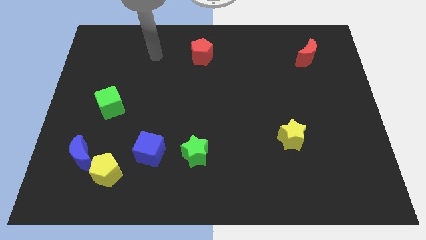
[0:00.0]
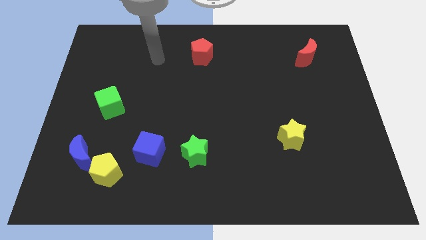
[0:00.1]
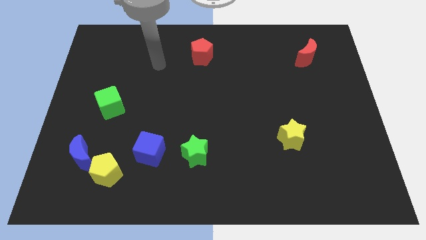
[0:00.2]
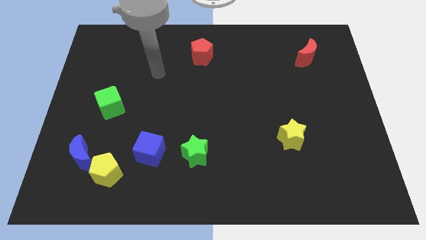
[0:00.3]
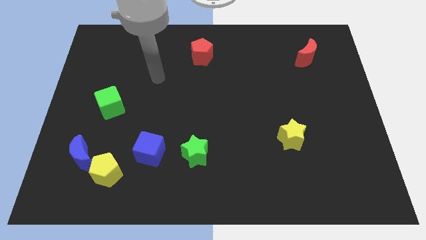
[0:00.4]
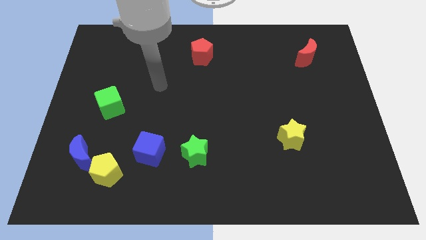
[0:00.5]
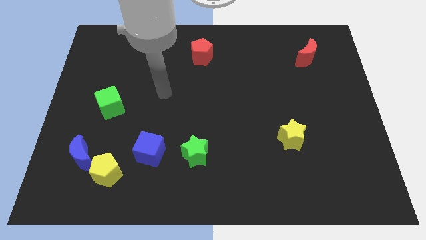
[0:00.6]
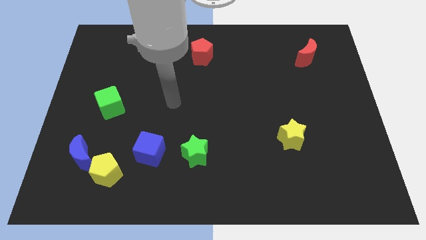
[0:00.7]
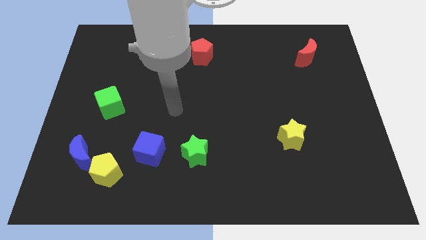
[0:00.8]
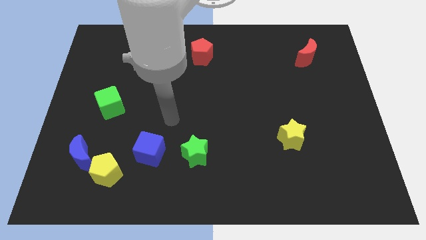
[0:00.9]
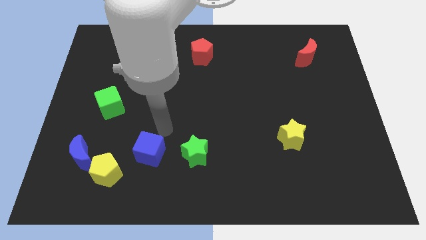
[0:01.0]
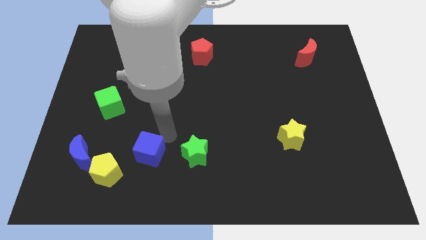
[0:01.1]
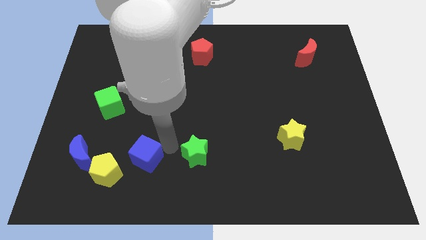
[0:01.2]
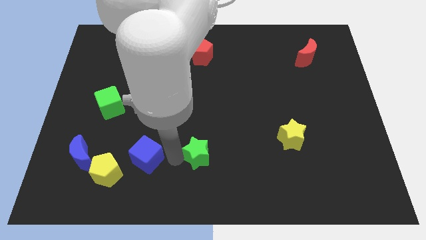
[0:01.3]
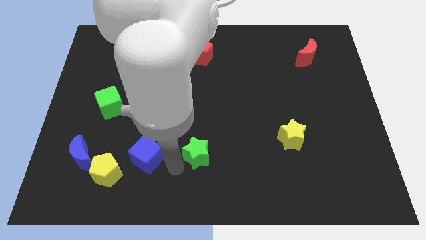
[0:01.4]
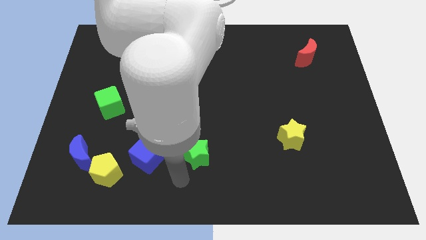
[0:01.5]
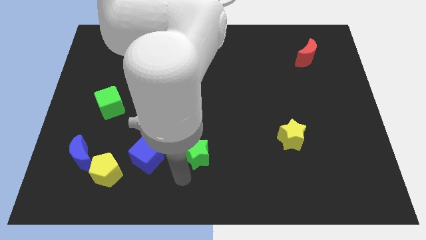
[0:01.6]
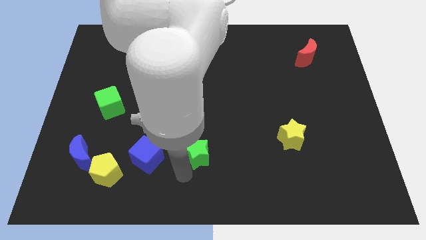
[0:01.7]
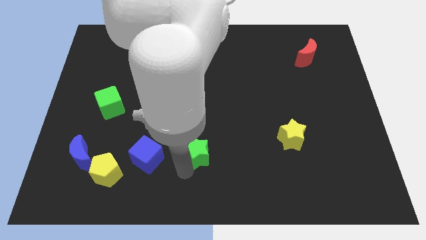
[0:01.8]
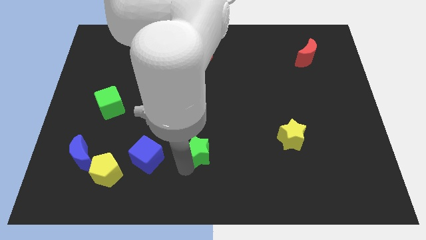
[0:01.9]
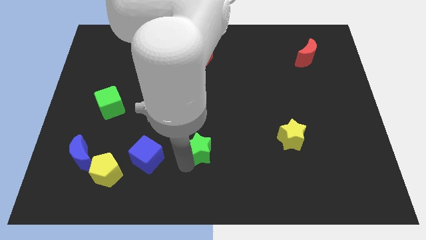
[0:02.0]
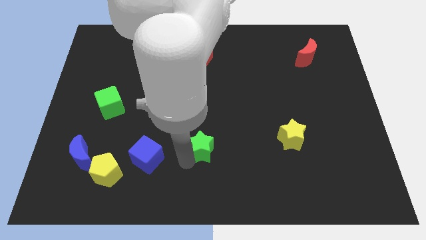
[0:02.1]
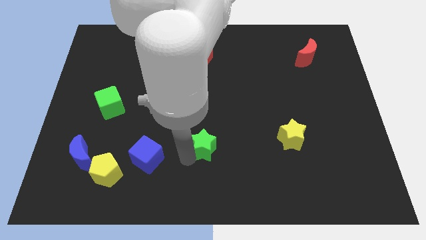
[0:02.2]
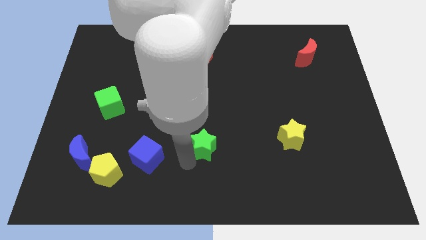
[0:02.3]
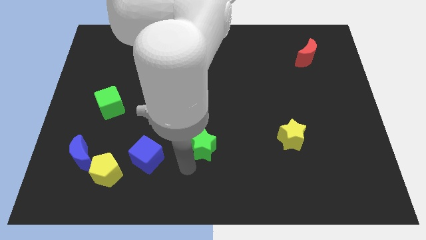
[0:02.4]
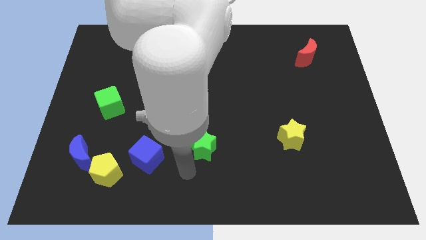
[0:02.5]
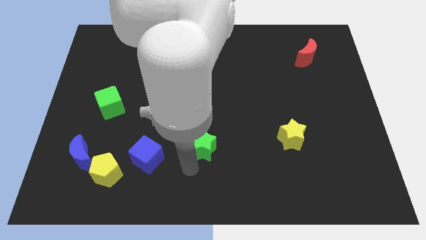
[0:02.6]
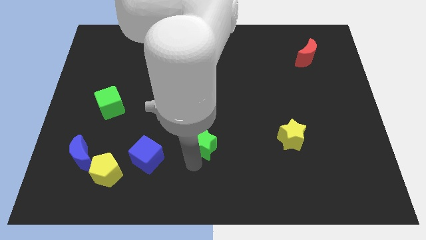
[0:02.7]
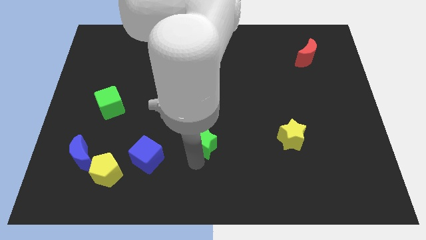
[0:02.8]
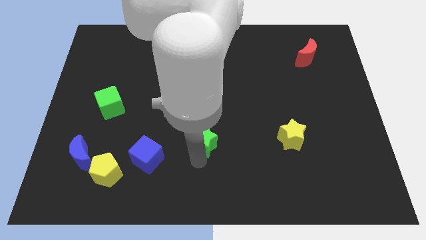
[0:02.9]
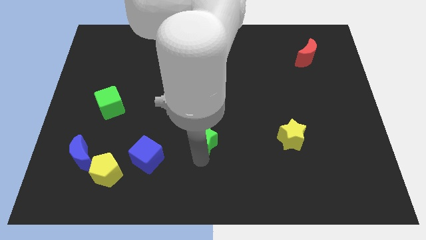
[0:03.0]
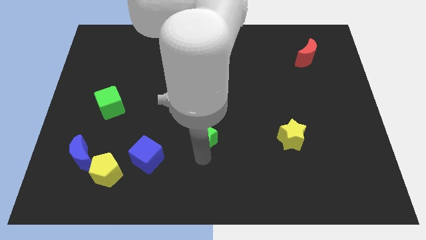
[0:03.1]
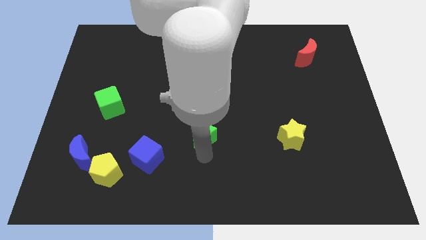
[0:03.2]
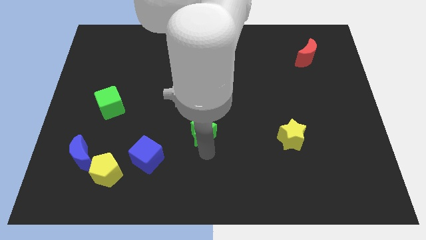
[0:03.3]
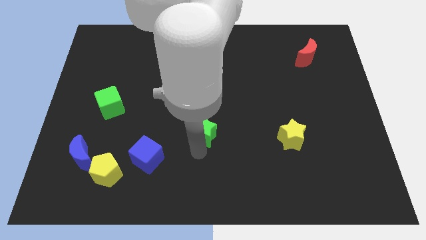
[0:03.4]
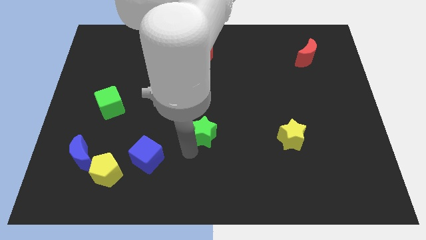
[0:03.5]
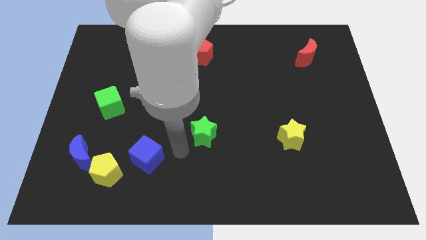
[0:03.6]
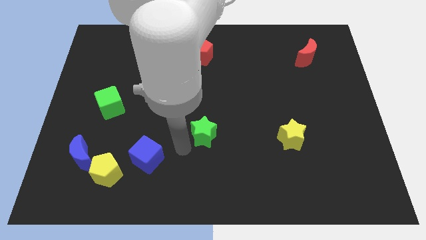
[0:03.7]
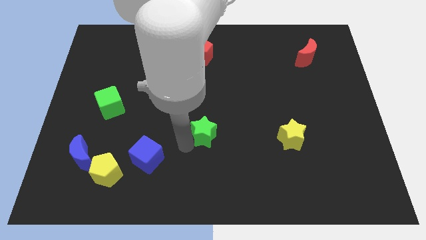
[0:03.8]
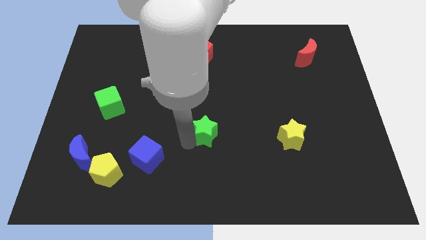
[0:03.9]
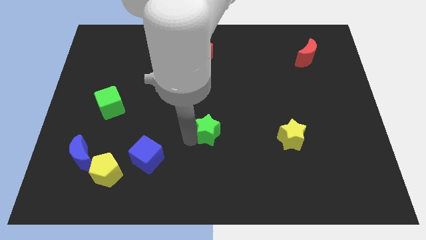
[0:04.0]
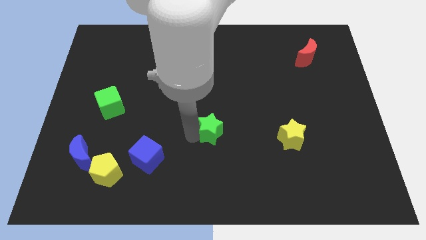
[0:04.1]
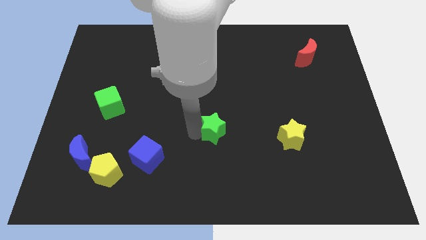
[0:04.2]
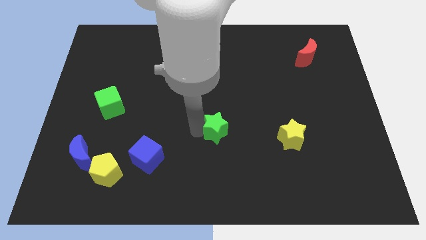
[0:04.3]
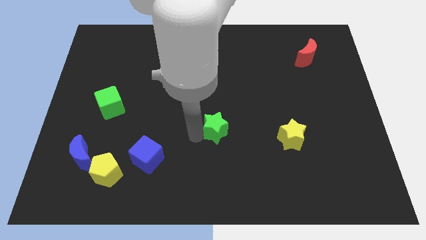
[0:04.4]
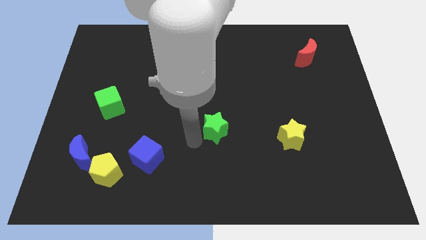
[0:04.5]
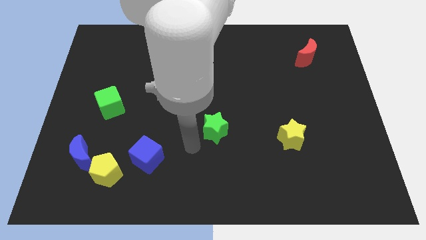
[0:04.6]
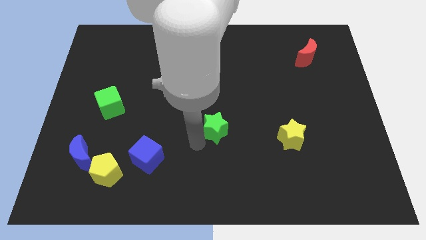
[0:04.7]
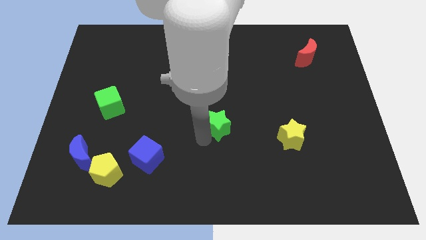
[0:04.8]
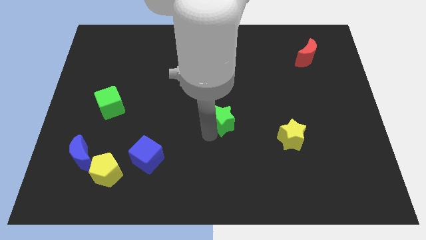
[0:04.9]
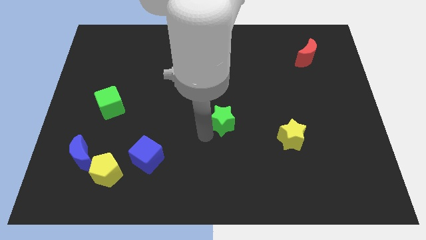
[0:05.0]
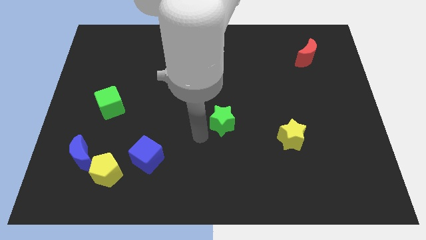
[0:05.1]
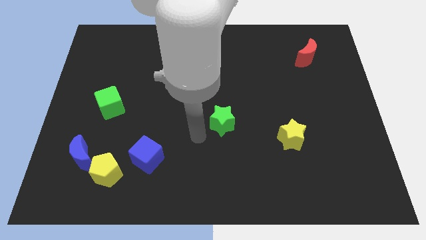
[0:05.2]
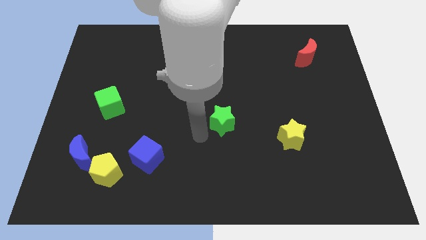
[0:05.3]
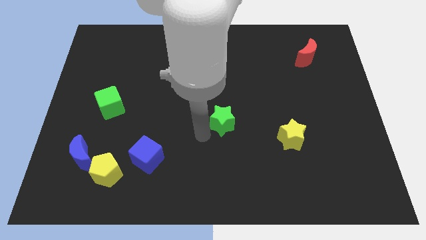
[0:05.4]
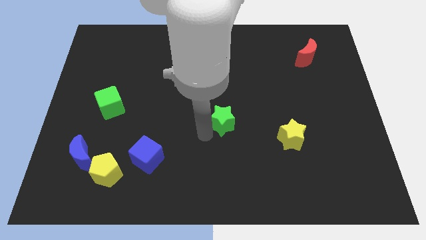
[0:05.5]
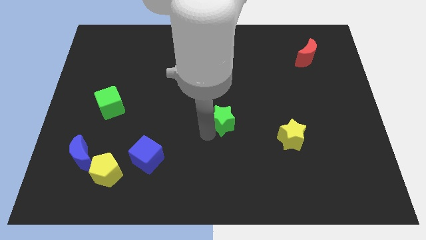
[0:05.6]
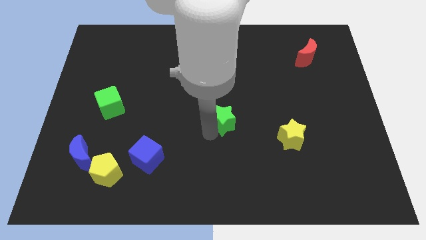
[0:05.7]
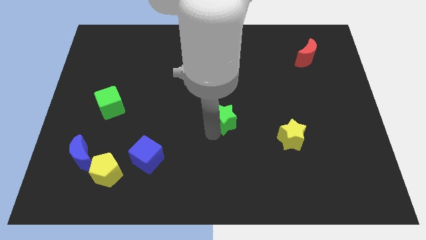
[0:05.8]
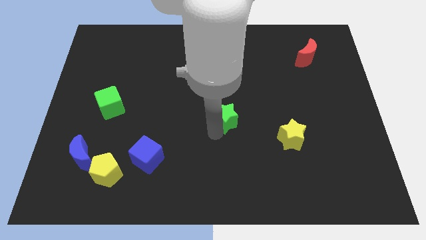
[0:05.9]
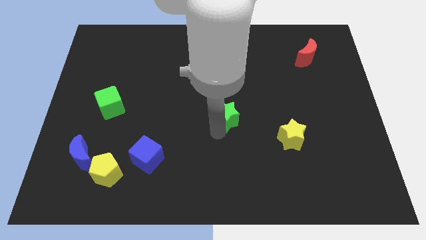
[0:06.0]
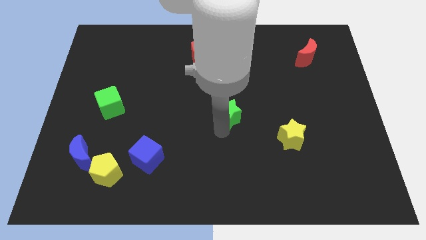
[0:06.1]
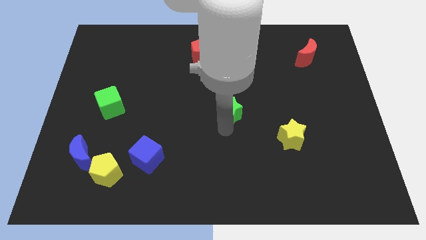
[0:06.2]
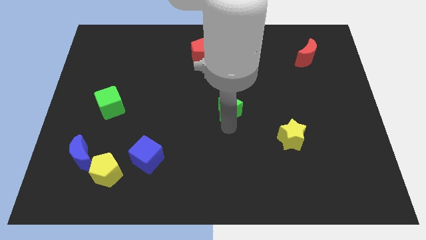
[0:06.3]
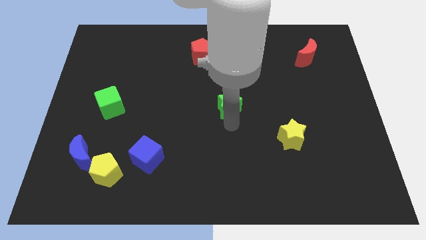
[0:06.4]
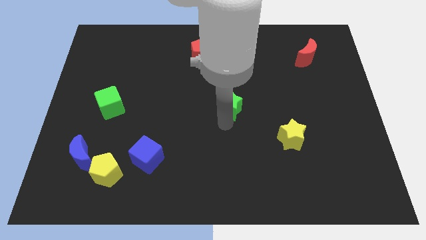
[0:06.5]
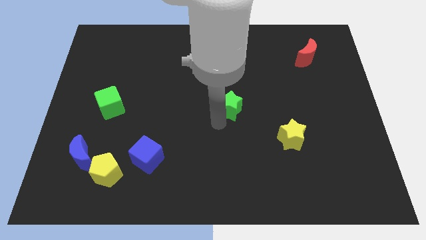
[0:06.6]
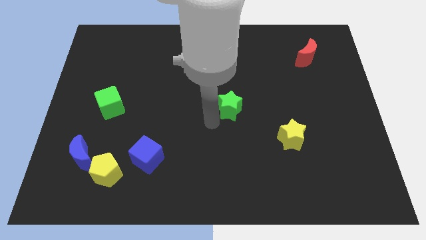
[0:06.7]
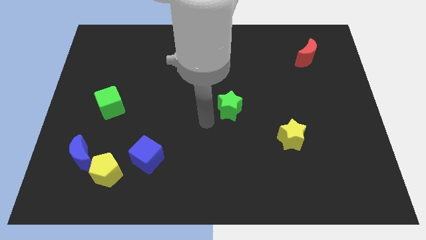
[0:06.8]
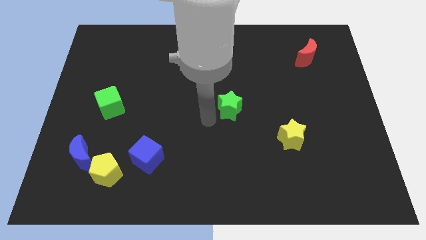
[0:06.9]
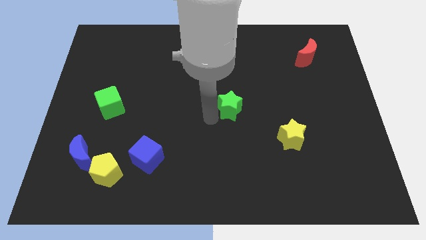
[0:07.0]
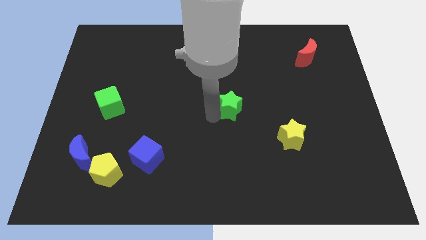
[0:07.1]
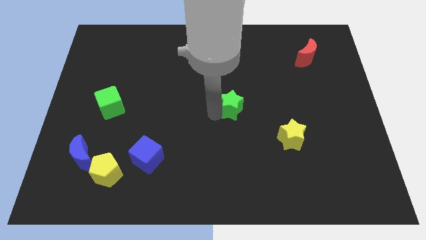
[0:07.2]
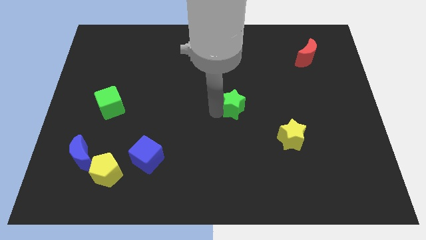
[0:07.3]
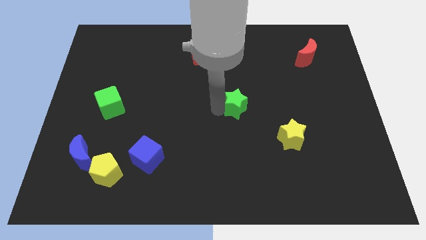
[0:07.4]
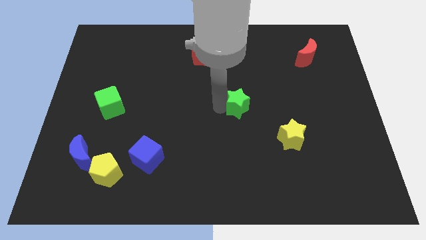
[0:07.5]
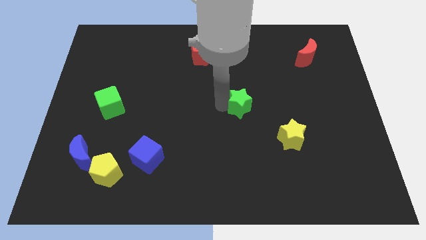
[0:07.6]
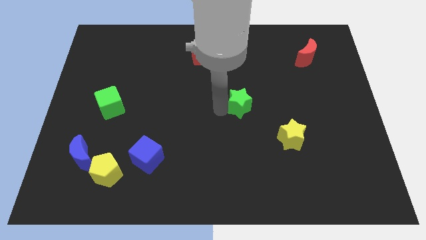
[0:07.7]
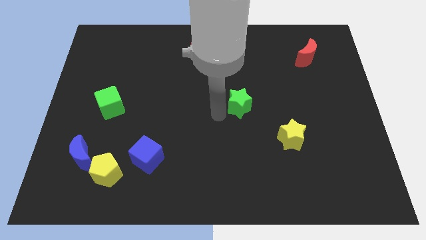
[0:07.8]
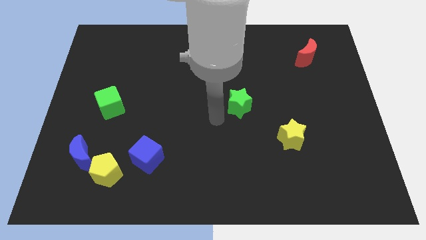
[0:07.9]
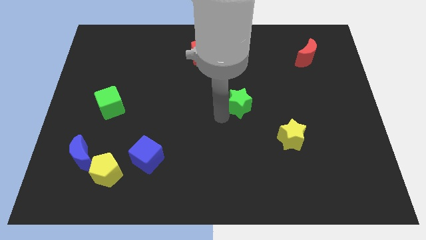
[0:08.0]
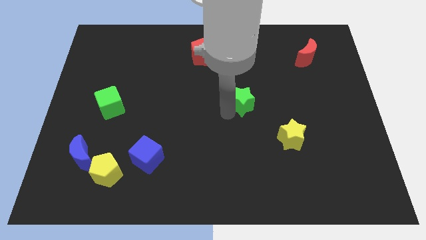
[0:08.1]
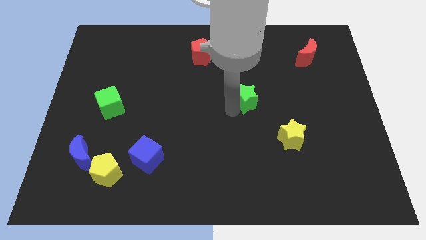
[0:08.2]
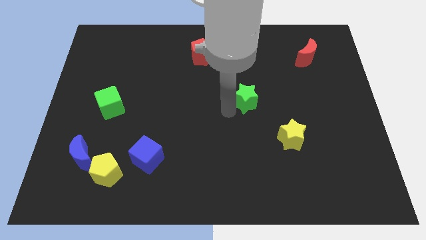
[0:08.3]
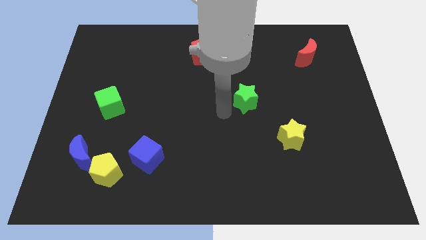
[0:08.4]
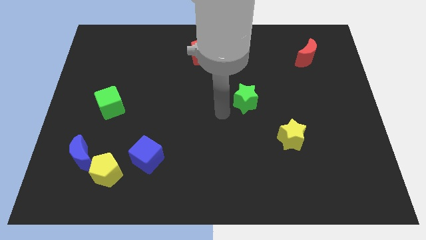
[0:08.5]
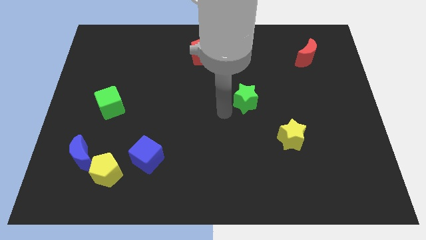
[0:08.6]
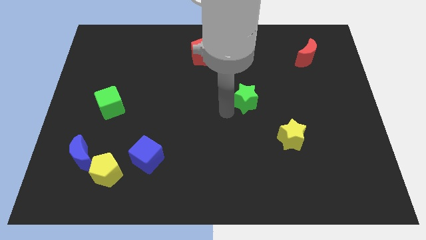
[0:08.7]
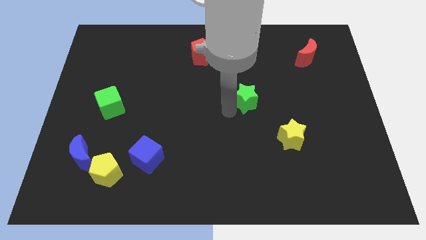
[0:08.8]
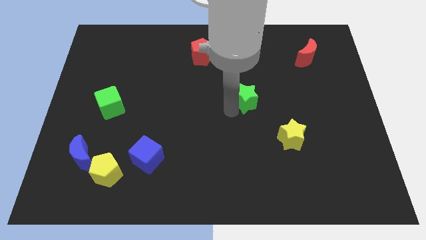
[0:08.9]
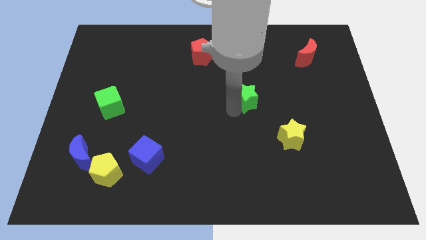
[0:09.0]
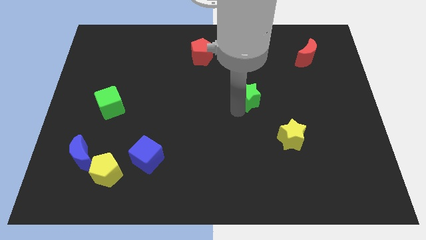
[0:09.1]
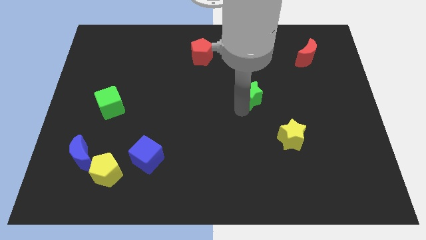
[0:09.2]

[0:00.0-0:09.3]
slide the green star up and to the right diagonally
